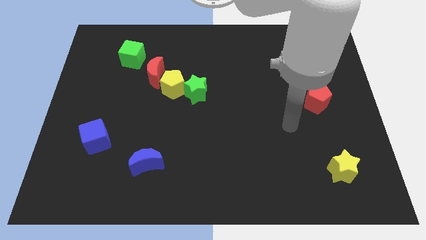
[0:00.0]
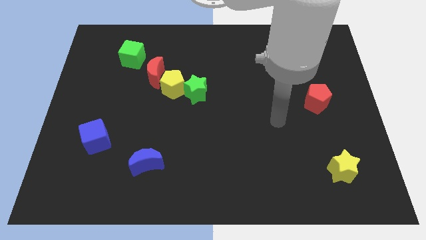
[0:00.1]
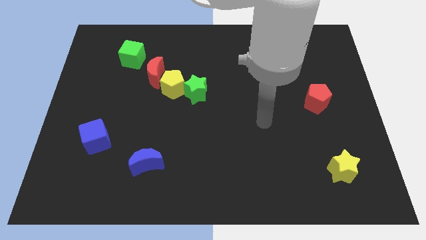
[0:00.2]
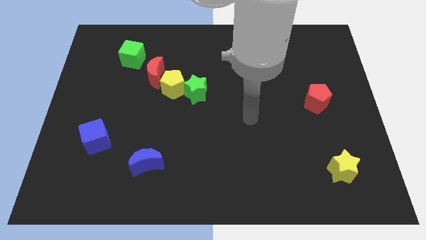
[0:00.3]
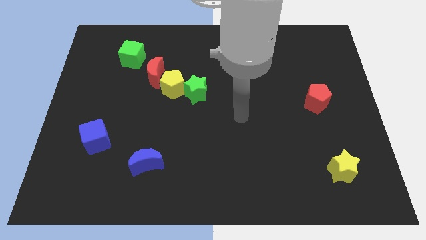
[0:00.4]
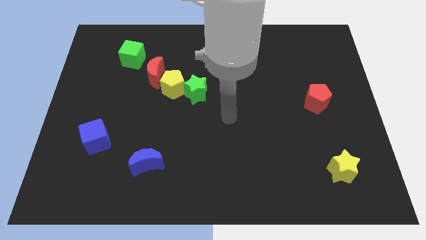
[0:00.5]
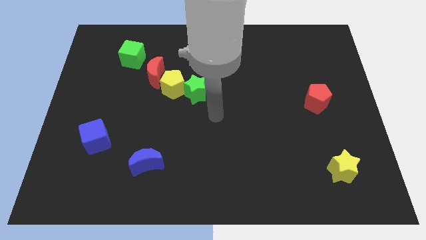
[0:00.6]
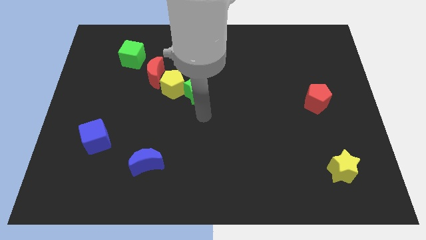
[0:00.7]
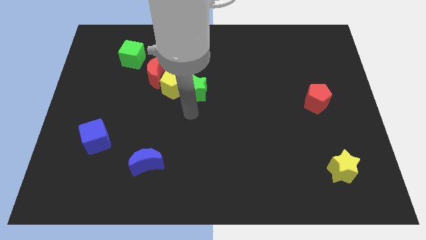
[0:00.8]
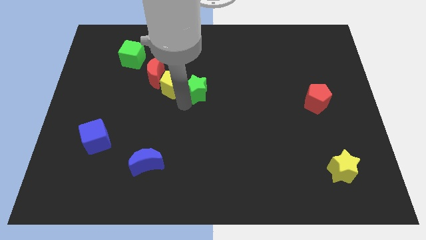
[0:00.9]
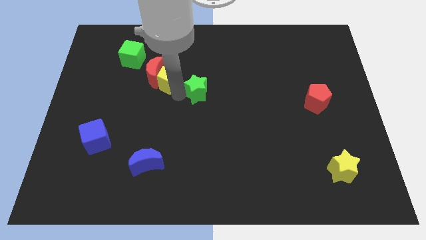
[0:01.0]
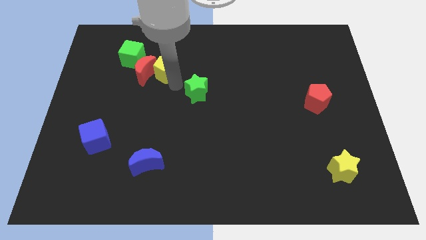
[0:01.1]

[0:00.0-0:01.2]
pull the green star apart from the yellow pentagon

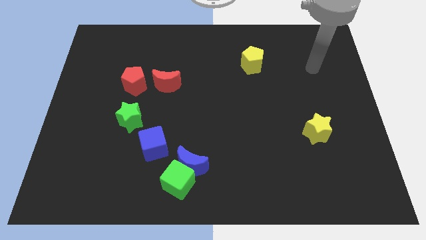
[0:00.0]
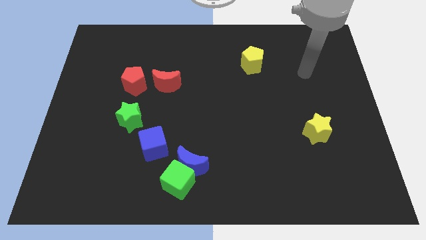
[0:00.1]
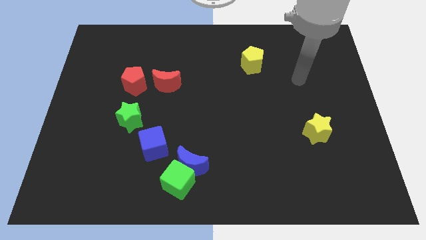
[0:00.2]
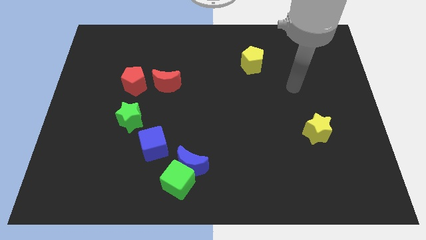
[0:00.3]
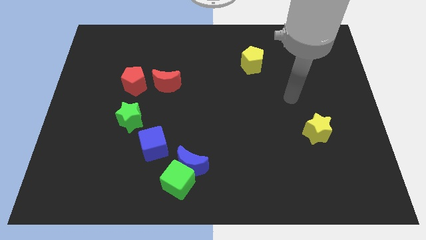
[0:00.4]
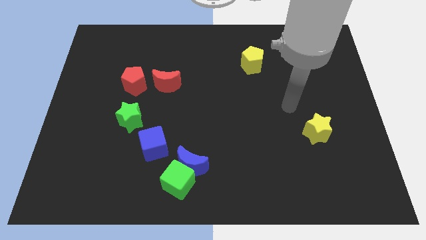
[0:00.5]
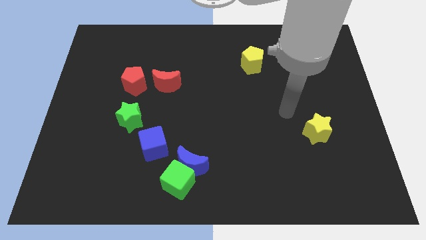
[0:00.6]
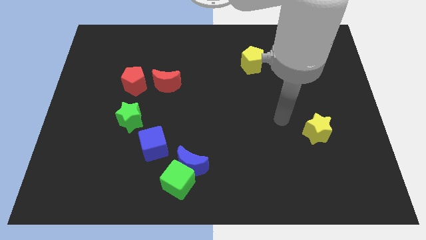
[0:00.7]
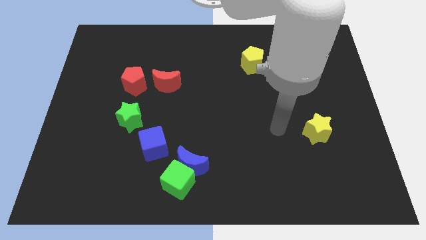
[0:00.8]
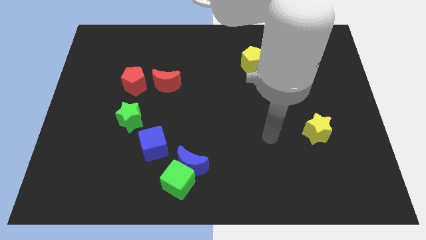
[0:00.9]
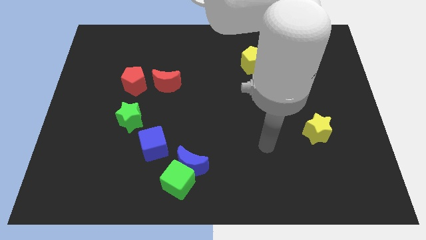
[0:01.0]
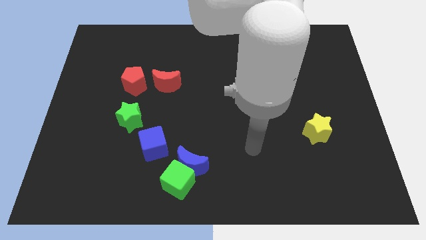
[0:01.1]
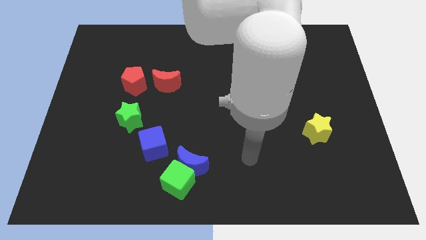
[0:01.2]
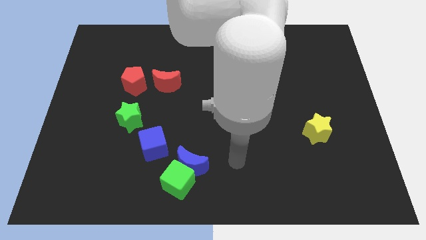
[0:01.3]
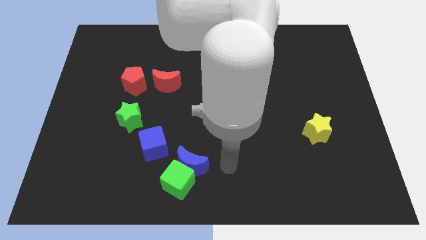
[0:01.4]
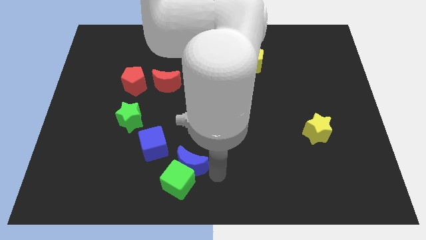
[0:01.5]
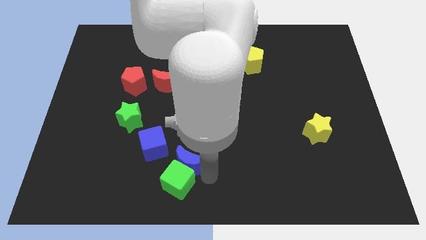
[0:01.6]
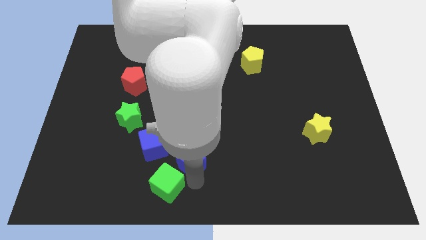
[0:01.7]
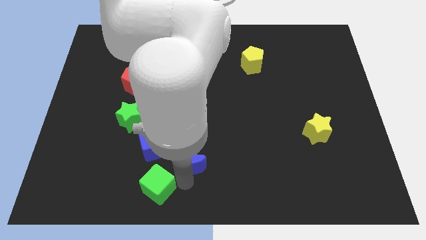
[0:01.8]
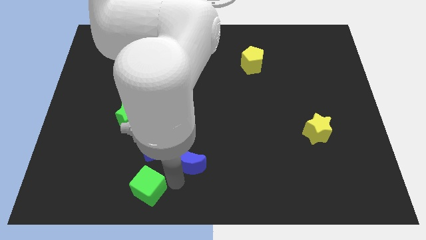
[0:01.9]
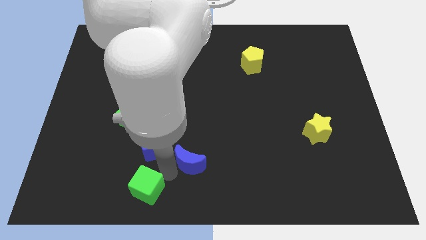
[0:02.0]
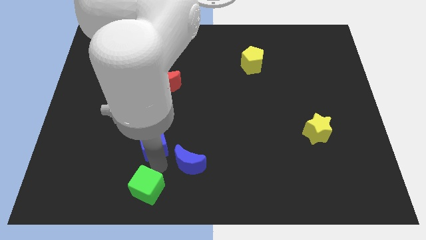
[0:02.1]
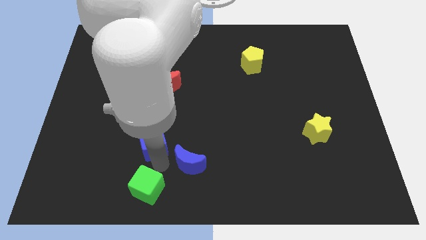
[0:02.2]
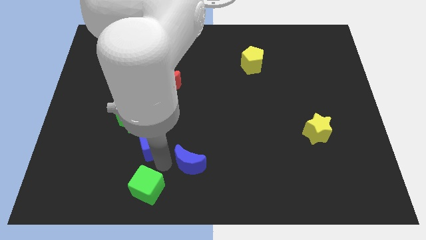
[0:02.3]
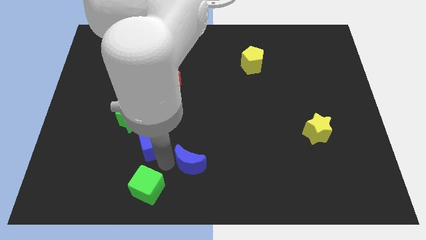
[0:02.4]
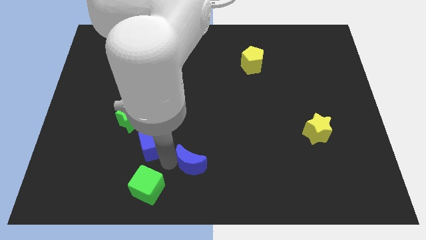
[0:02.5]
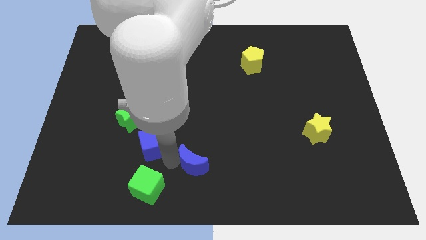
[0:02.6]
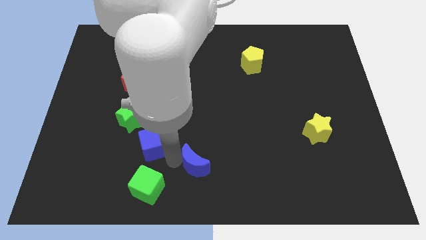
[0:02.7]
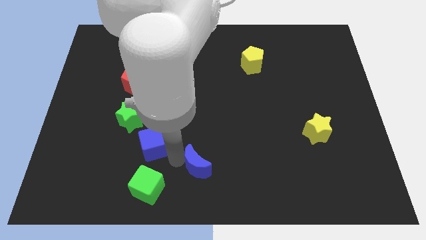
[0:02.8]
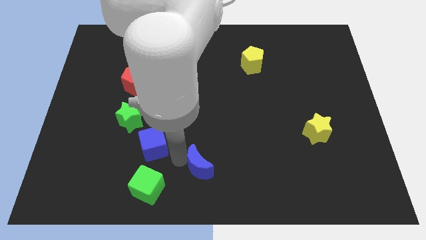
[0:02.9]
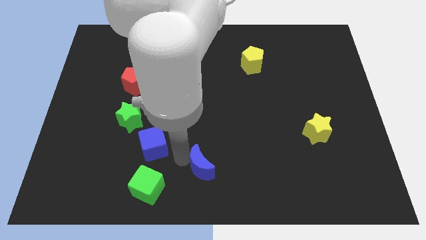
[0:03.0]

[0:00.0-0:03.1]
move the blue moon away from the green cube and blue cube

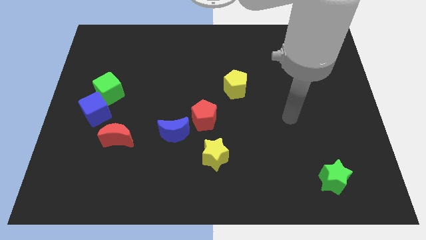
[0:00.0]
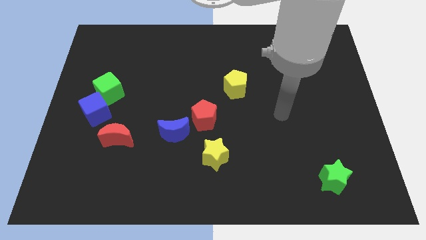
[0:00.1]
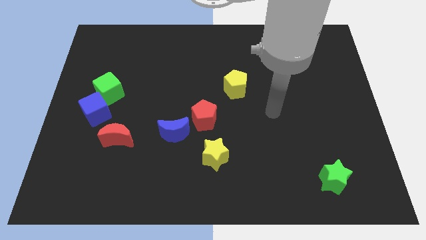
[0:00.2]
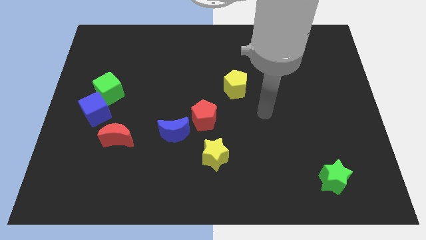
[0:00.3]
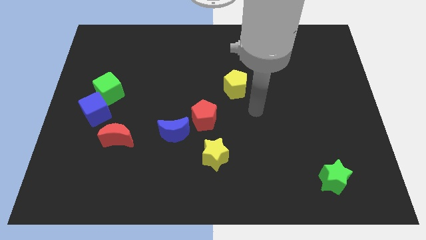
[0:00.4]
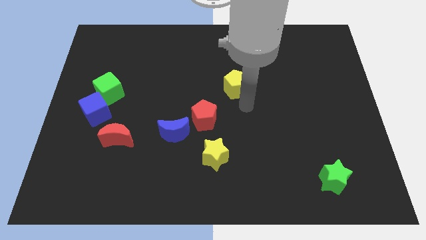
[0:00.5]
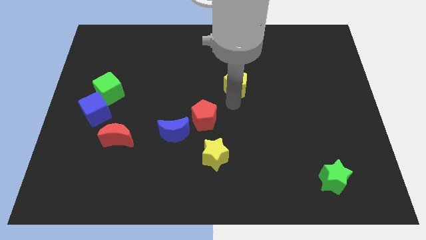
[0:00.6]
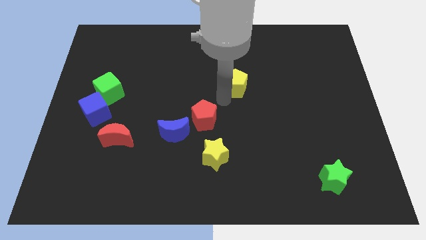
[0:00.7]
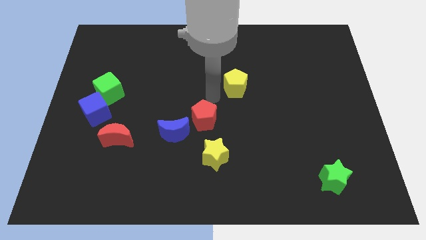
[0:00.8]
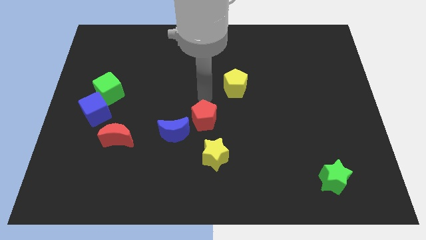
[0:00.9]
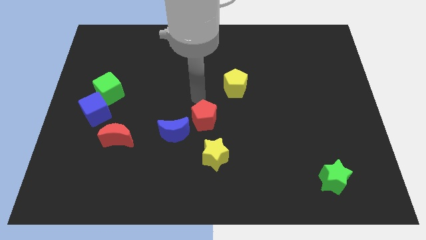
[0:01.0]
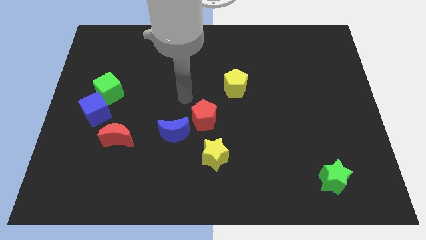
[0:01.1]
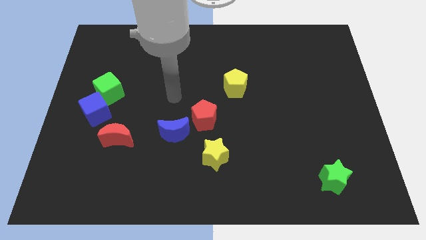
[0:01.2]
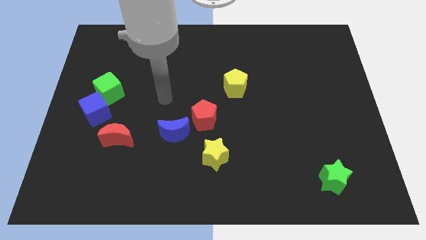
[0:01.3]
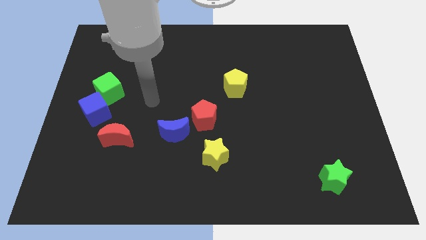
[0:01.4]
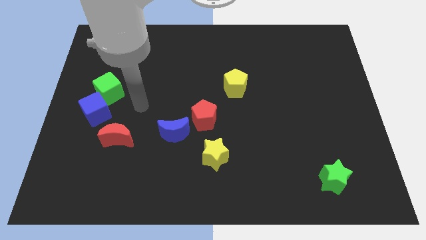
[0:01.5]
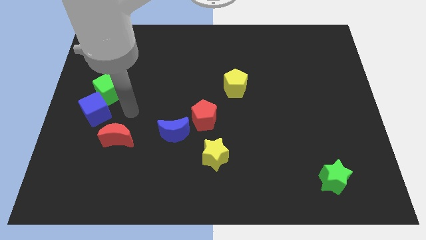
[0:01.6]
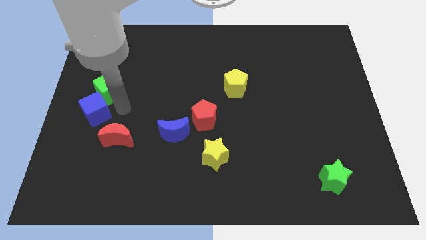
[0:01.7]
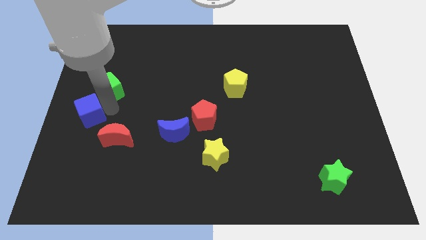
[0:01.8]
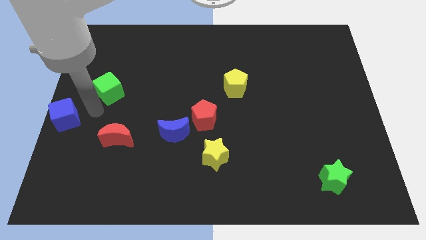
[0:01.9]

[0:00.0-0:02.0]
separate the green cube from the blue cube

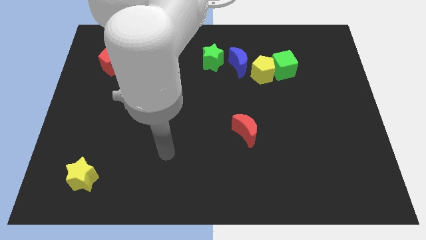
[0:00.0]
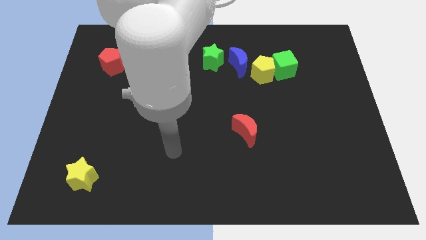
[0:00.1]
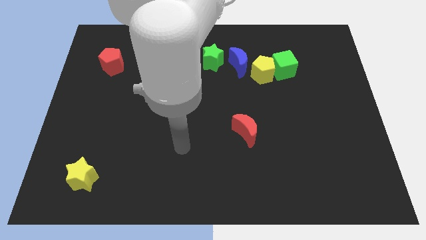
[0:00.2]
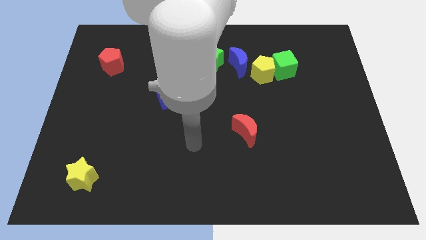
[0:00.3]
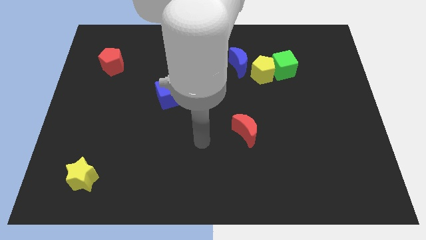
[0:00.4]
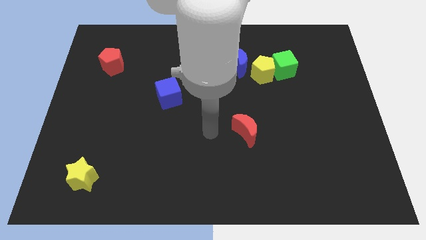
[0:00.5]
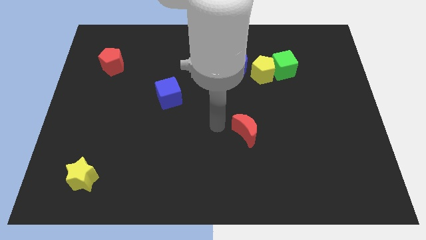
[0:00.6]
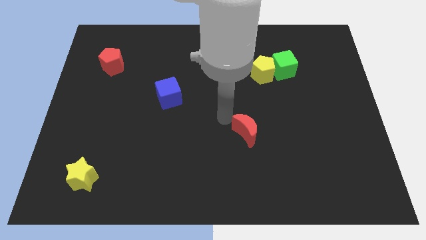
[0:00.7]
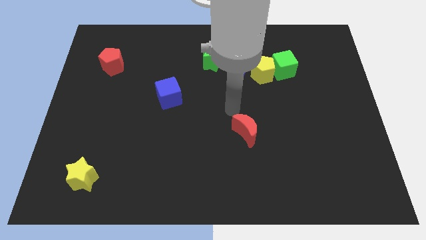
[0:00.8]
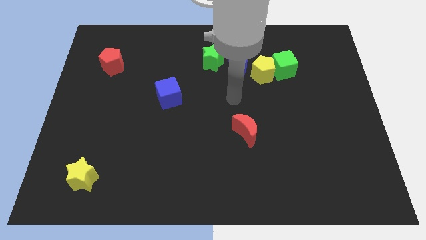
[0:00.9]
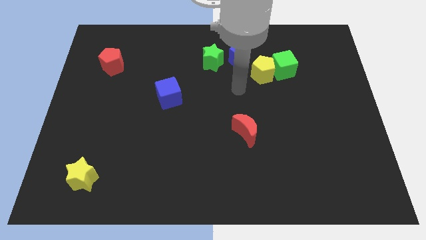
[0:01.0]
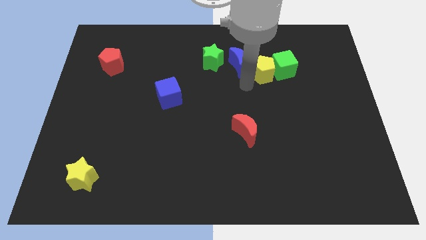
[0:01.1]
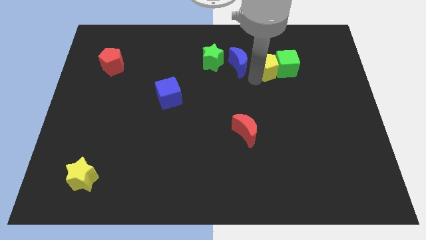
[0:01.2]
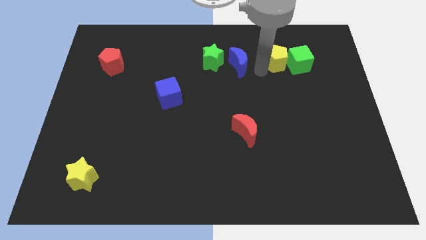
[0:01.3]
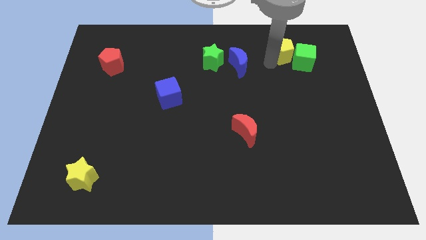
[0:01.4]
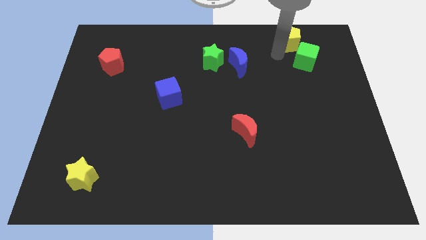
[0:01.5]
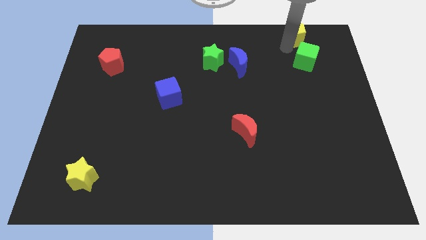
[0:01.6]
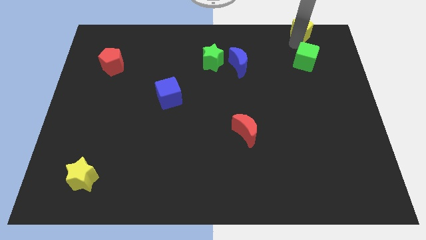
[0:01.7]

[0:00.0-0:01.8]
pull the green cube apart from the yellow pentagon

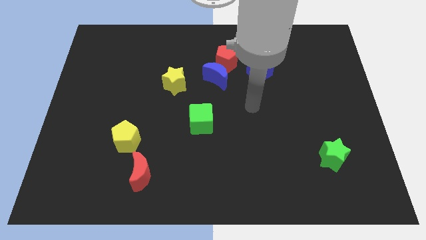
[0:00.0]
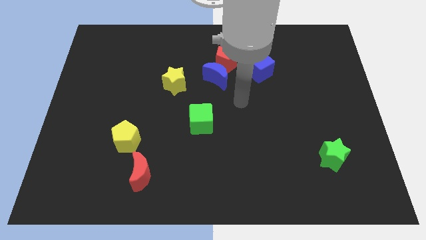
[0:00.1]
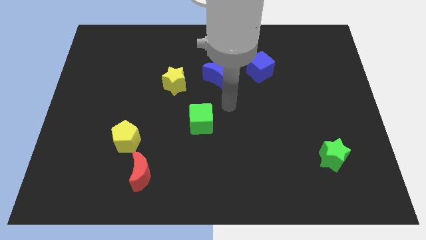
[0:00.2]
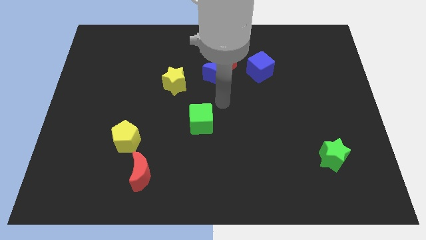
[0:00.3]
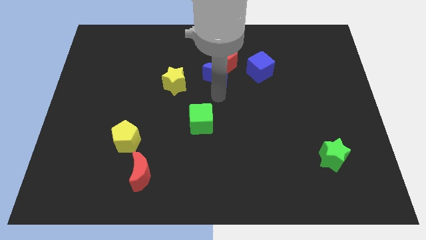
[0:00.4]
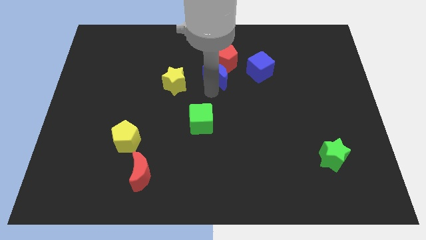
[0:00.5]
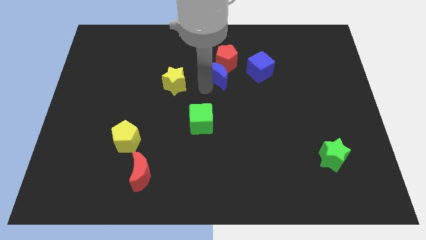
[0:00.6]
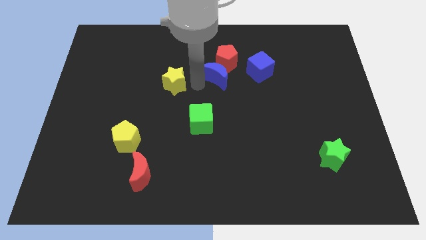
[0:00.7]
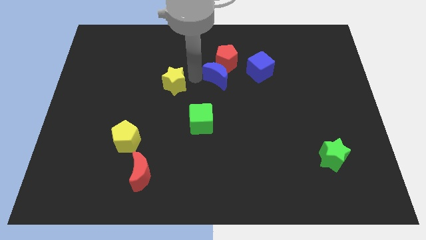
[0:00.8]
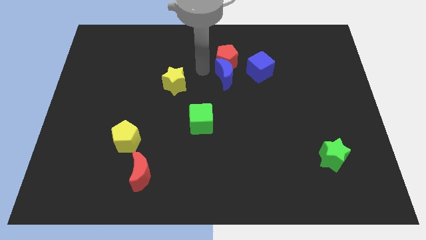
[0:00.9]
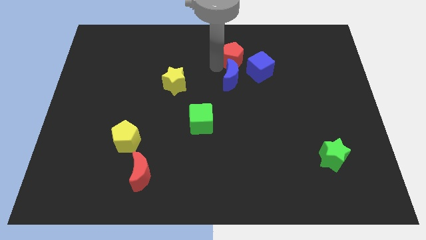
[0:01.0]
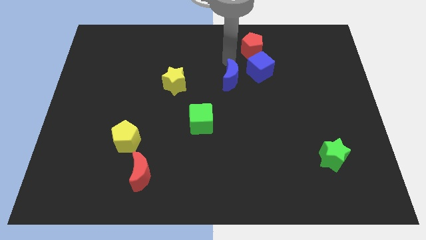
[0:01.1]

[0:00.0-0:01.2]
move the blue moon away from the red pentagon
